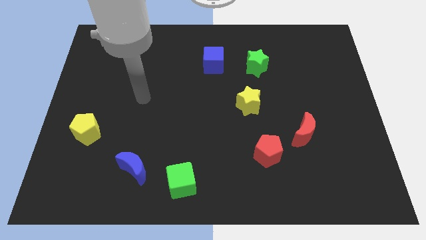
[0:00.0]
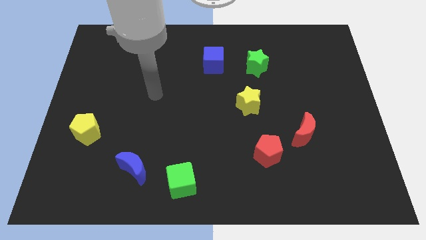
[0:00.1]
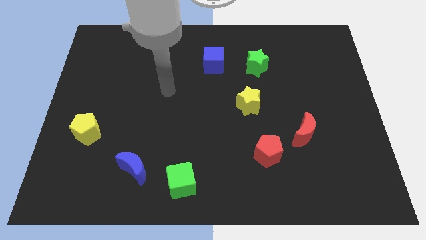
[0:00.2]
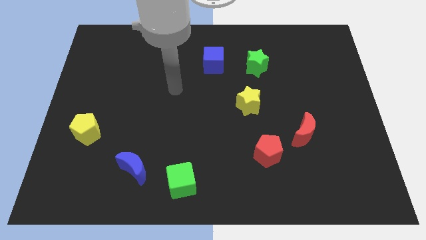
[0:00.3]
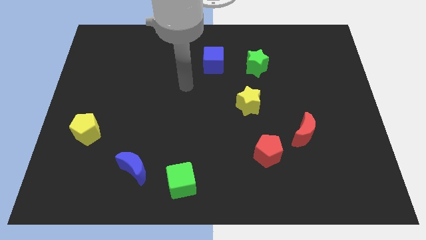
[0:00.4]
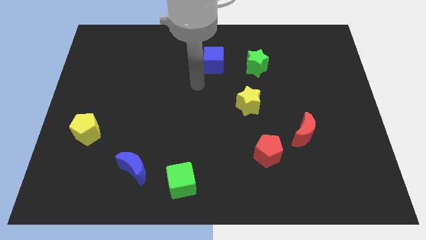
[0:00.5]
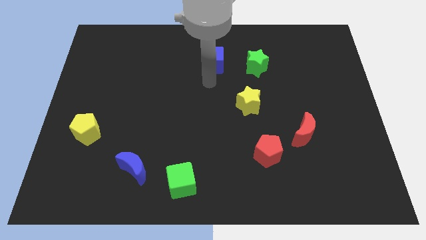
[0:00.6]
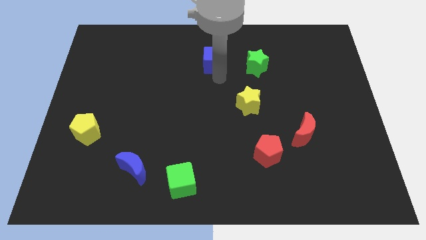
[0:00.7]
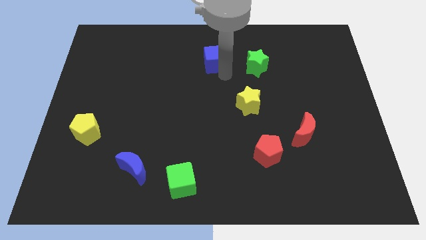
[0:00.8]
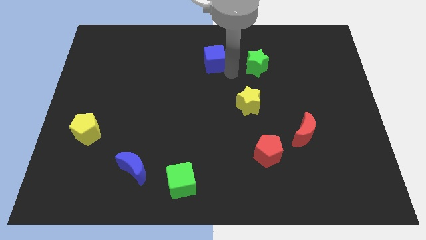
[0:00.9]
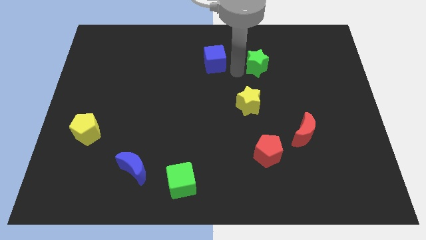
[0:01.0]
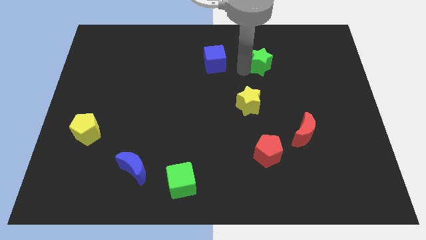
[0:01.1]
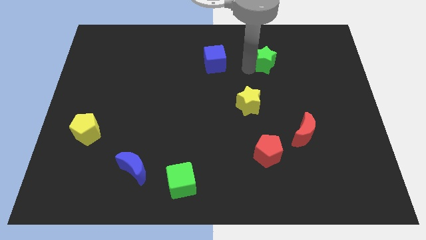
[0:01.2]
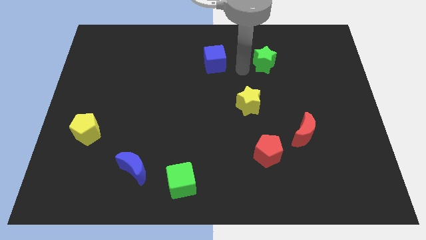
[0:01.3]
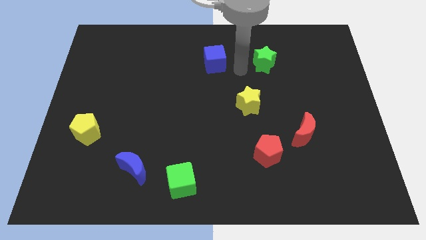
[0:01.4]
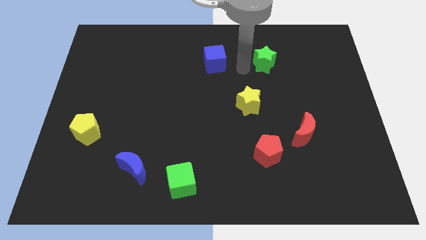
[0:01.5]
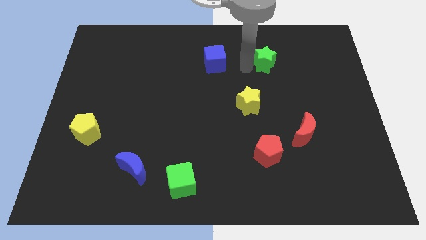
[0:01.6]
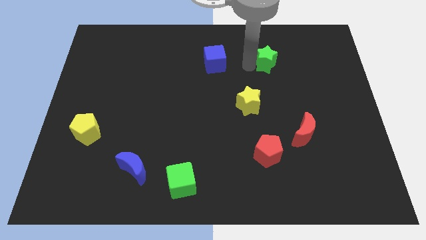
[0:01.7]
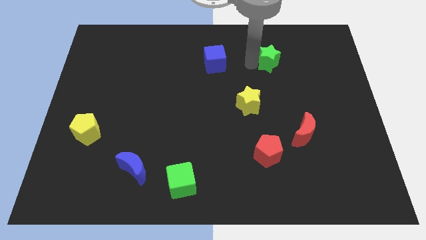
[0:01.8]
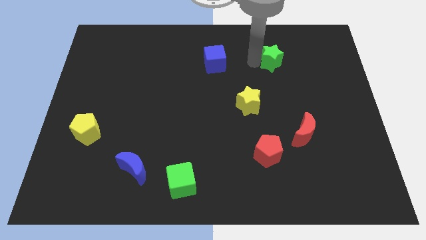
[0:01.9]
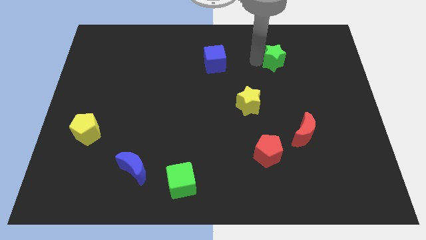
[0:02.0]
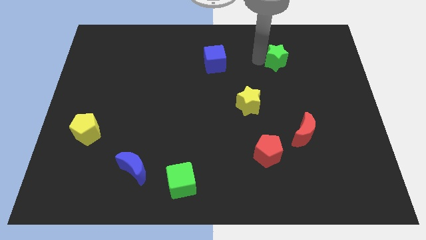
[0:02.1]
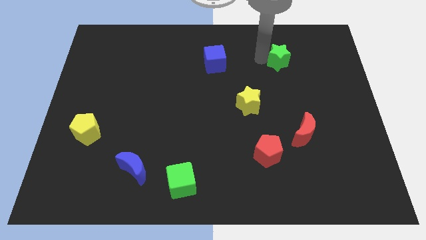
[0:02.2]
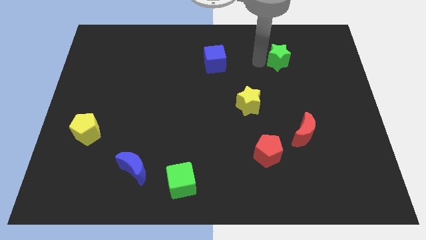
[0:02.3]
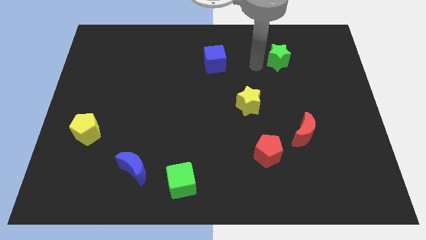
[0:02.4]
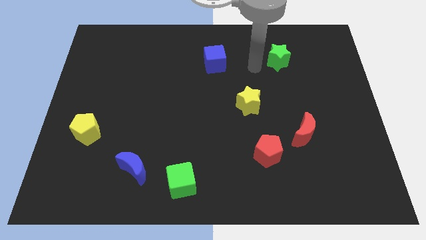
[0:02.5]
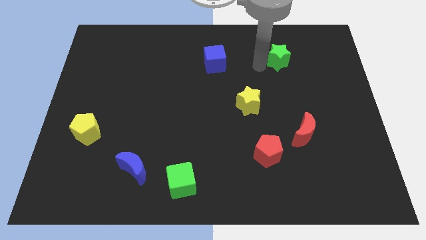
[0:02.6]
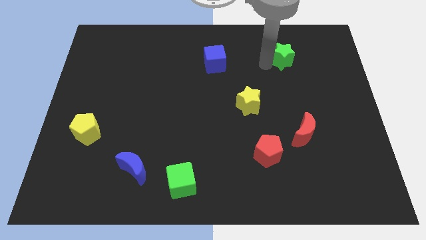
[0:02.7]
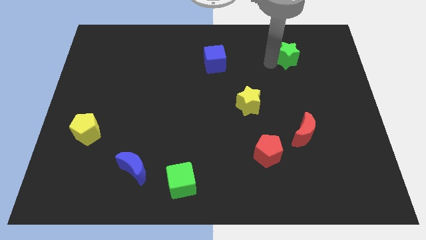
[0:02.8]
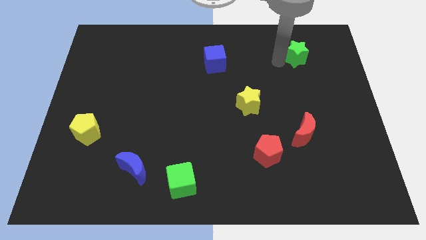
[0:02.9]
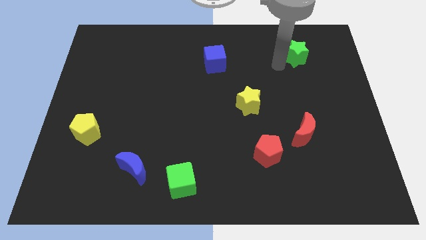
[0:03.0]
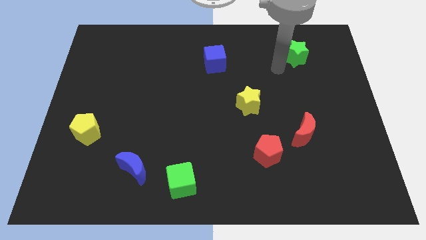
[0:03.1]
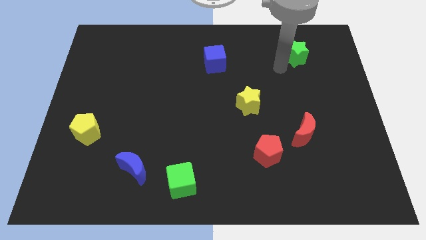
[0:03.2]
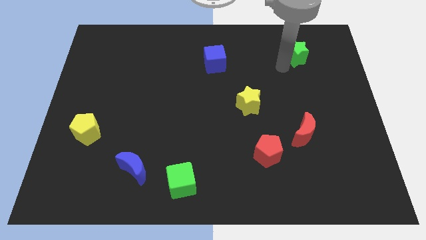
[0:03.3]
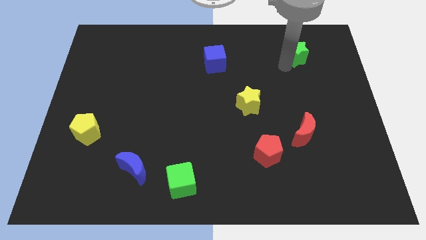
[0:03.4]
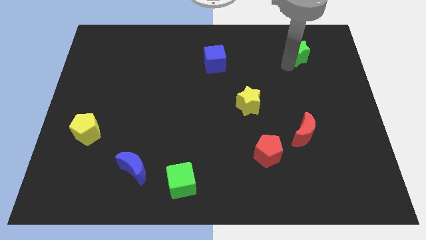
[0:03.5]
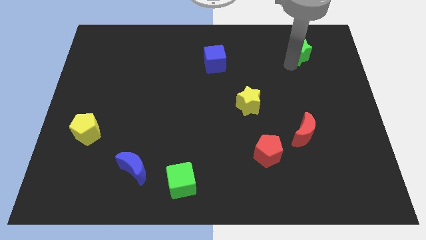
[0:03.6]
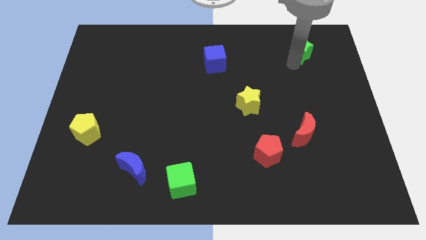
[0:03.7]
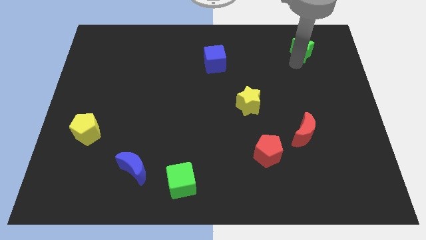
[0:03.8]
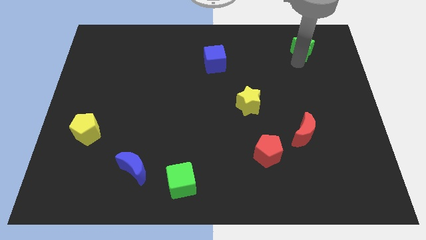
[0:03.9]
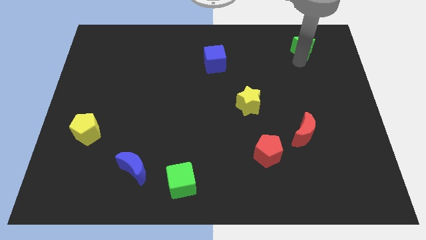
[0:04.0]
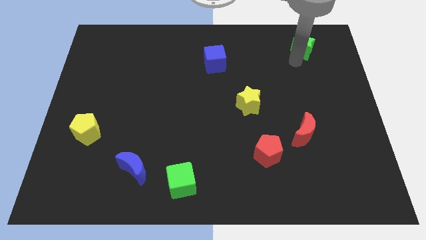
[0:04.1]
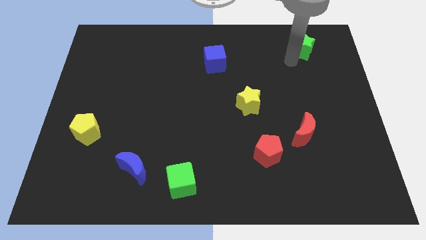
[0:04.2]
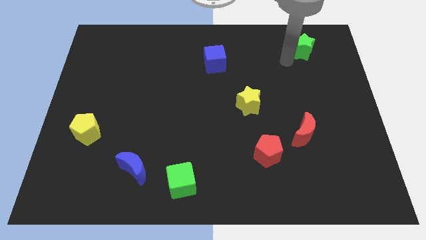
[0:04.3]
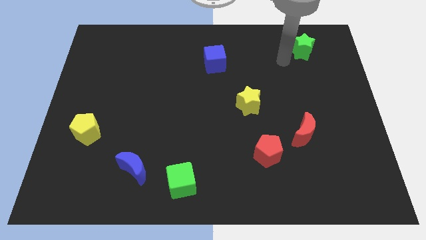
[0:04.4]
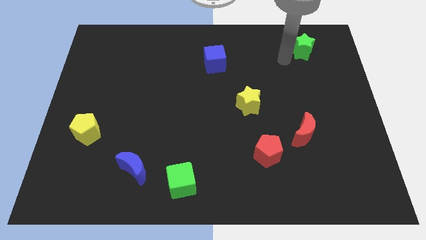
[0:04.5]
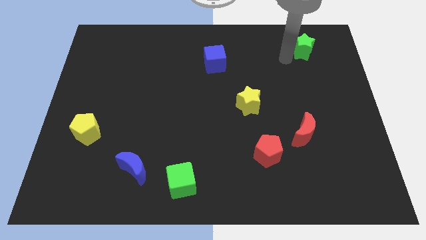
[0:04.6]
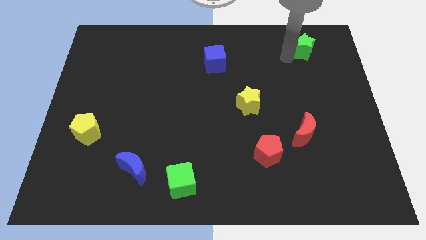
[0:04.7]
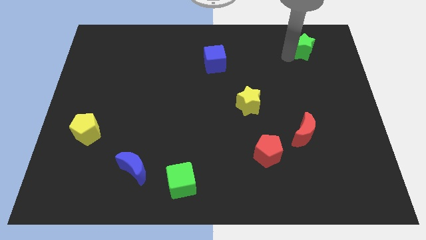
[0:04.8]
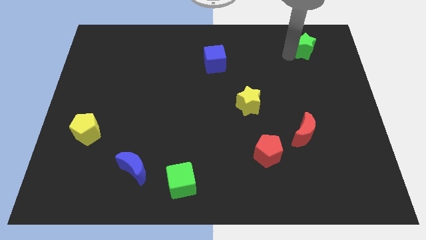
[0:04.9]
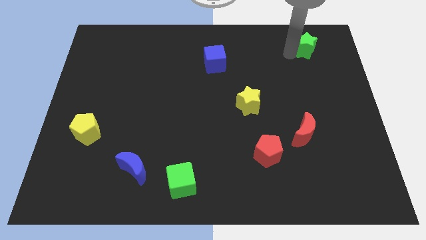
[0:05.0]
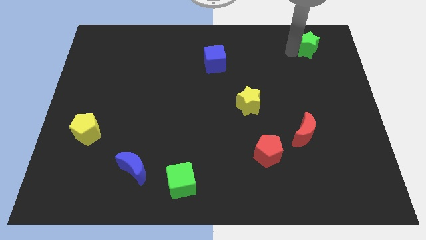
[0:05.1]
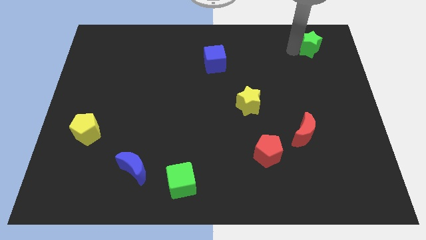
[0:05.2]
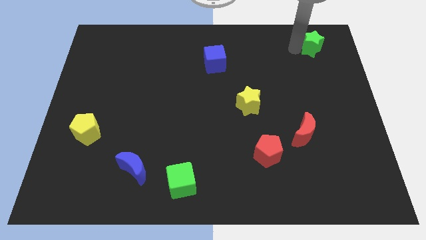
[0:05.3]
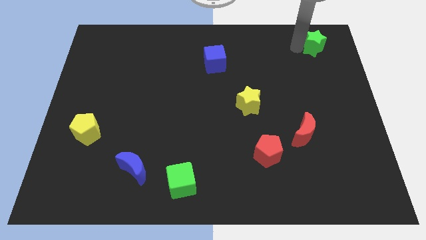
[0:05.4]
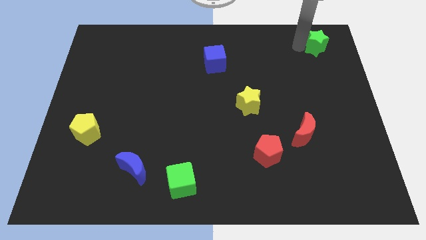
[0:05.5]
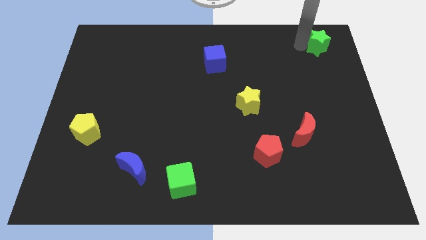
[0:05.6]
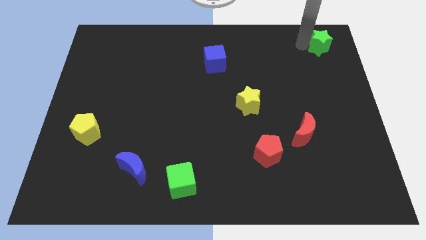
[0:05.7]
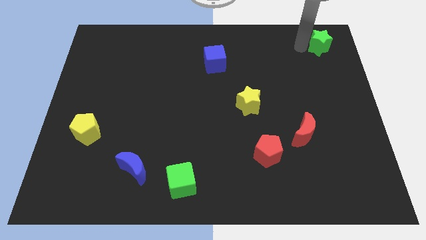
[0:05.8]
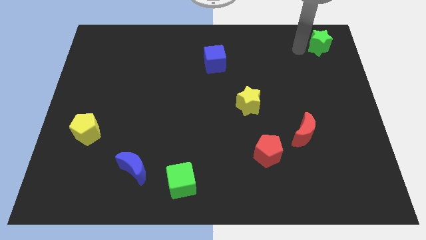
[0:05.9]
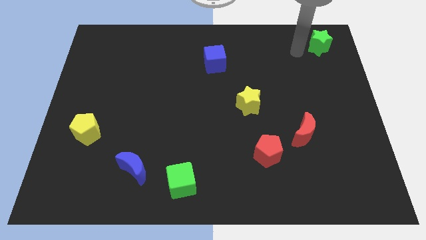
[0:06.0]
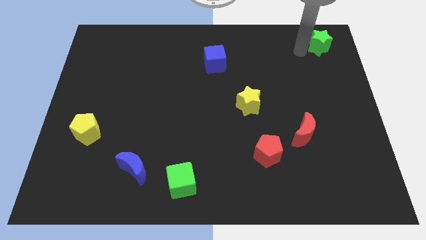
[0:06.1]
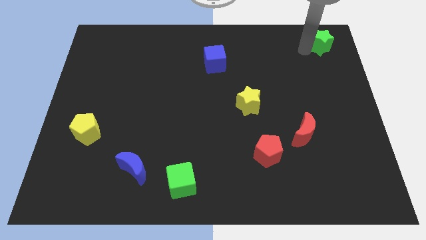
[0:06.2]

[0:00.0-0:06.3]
move the green star to the top right of the board

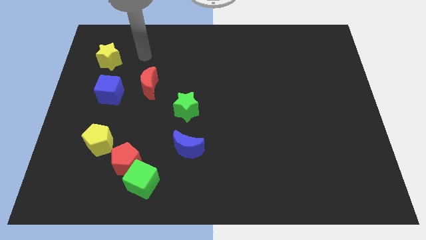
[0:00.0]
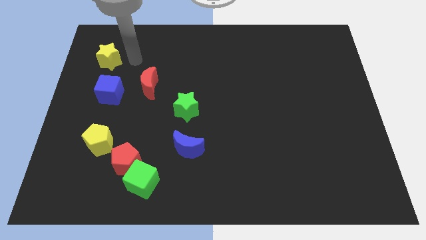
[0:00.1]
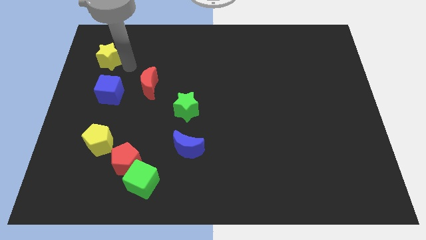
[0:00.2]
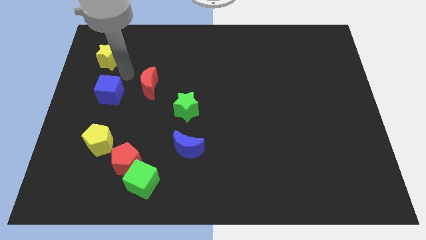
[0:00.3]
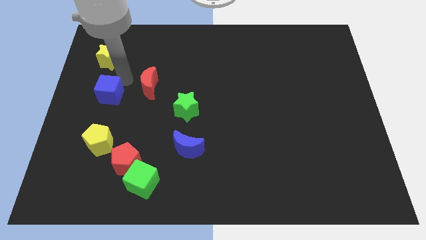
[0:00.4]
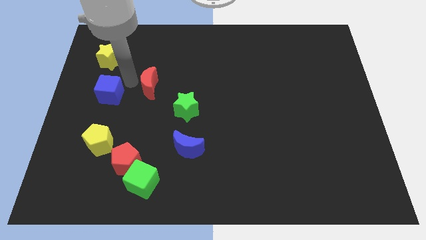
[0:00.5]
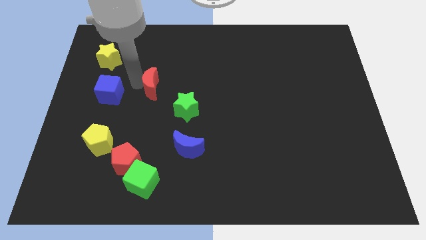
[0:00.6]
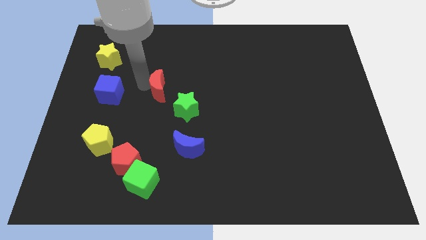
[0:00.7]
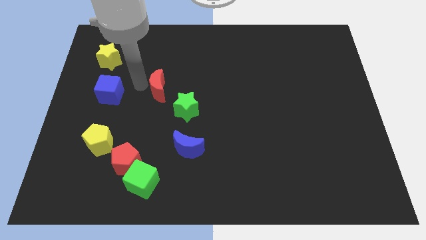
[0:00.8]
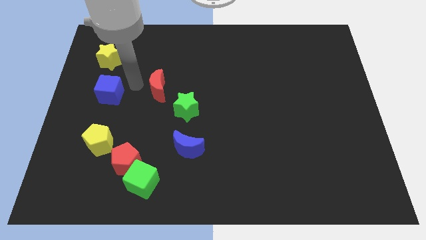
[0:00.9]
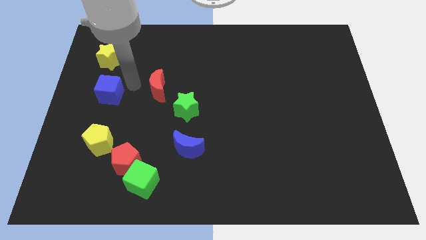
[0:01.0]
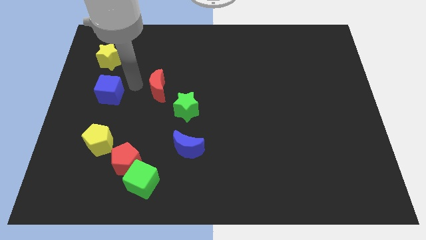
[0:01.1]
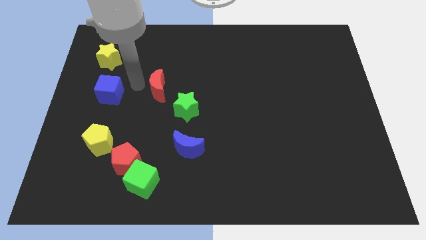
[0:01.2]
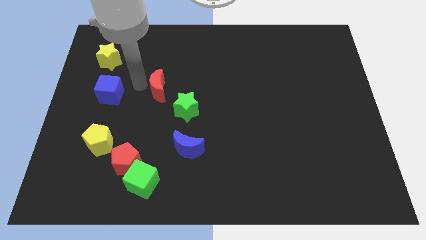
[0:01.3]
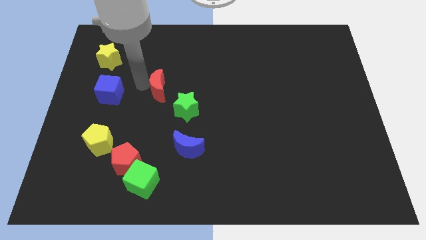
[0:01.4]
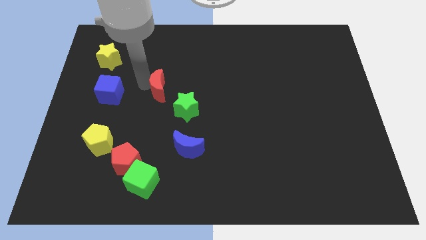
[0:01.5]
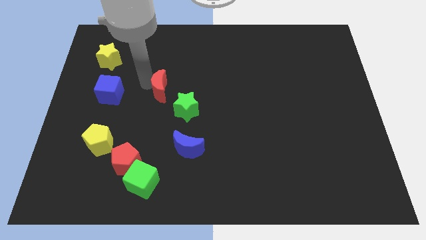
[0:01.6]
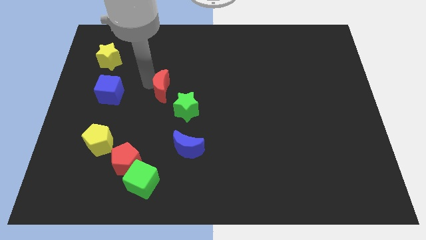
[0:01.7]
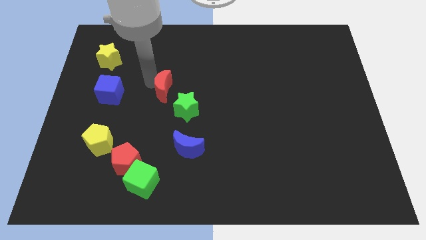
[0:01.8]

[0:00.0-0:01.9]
move the red moon to the middle
